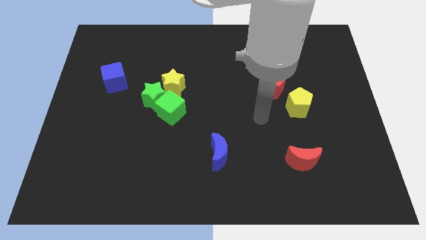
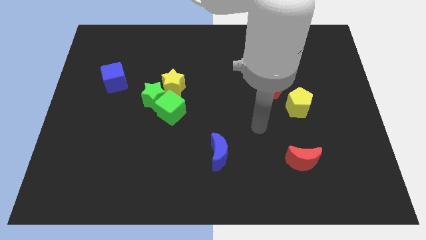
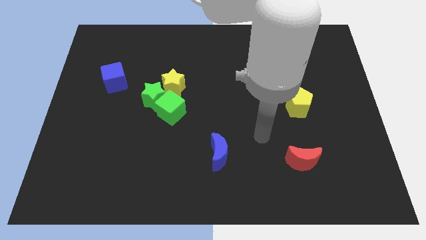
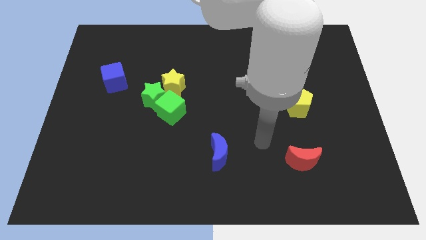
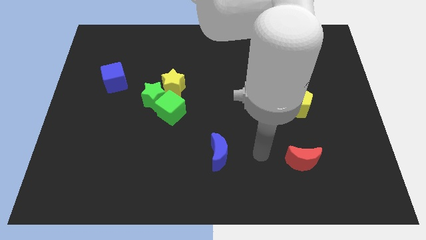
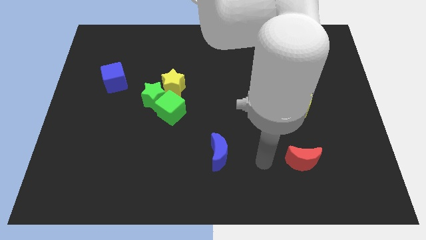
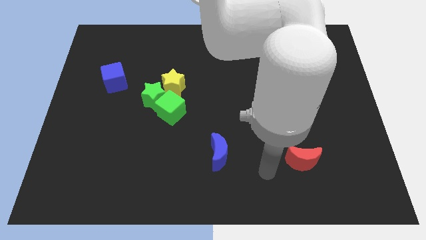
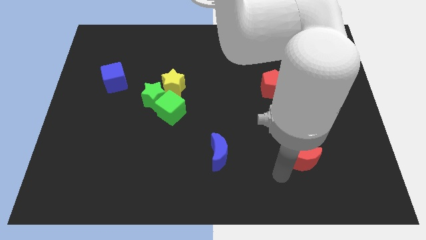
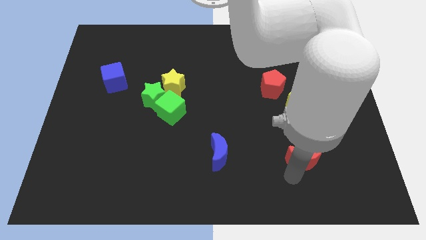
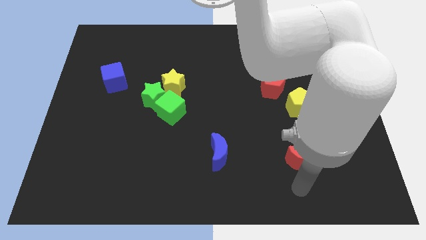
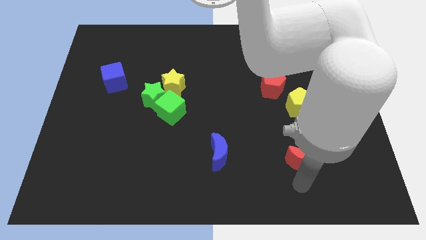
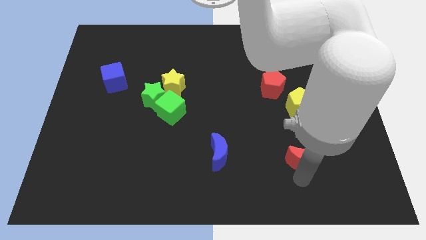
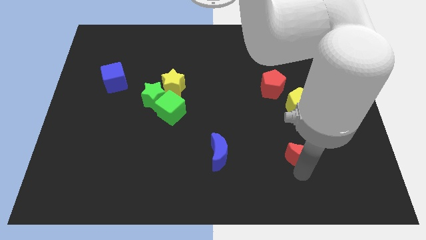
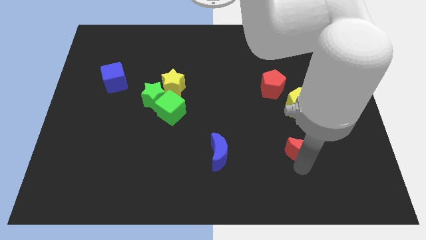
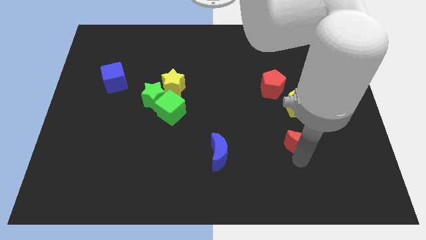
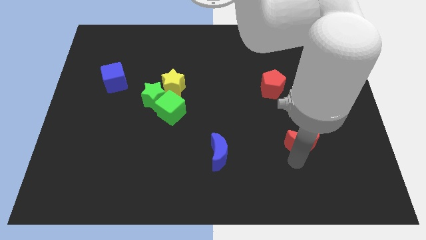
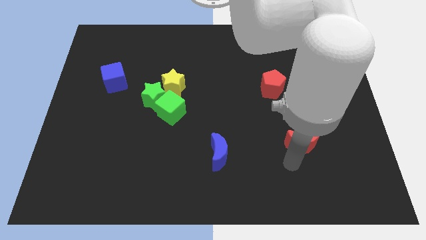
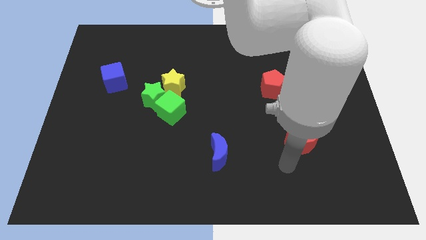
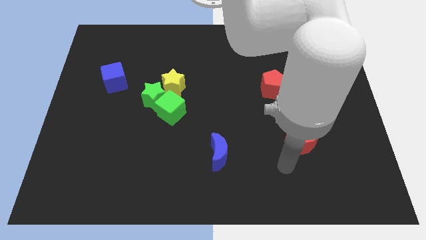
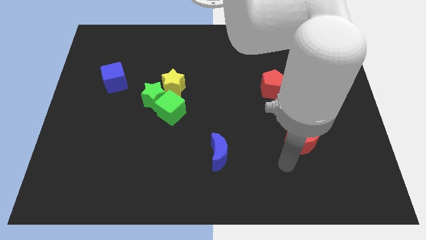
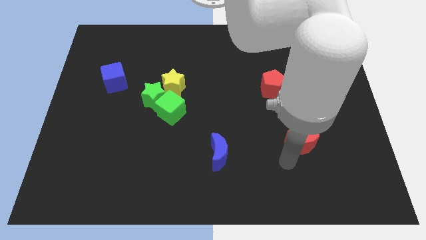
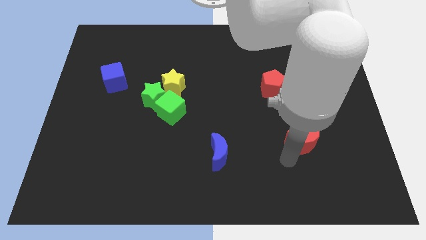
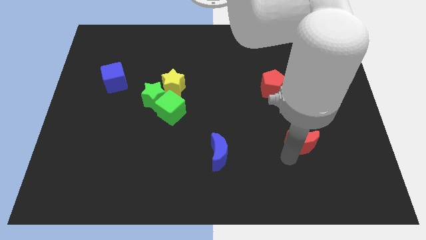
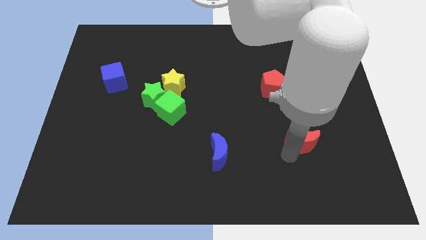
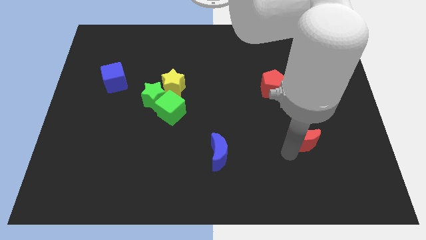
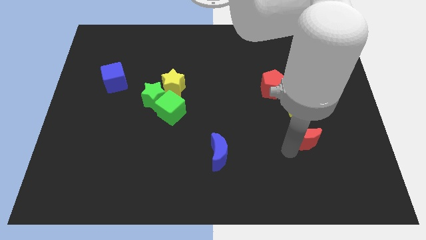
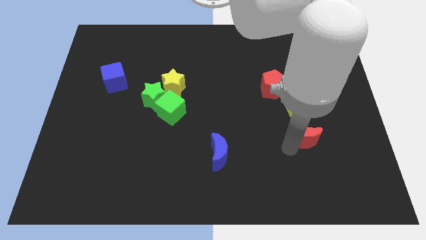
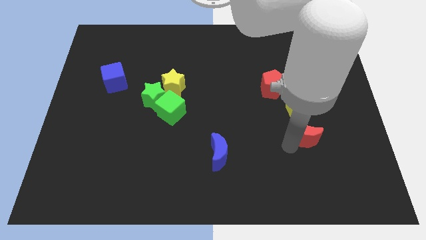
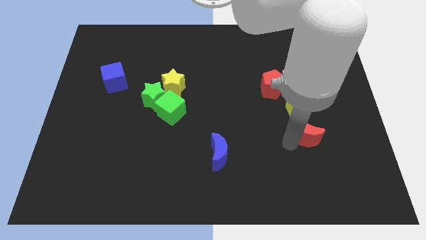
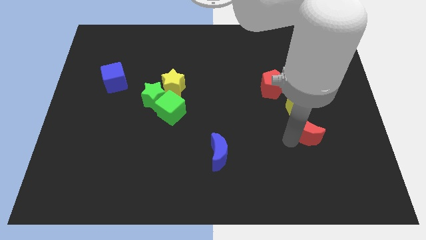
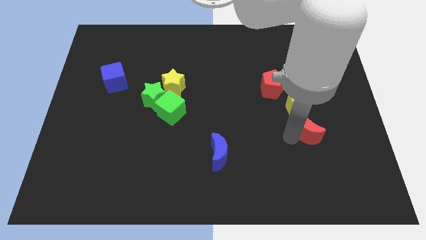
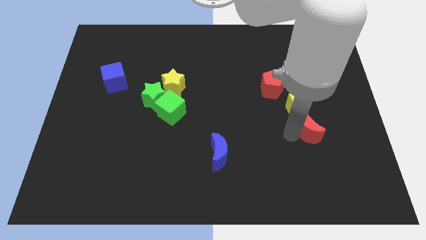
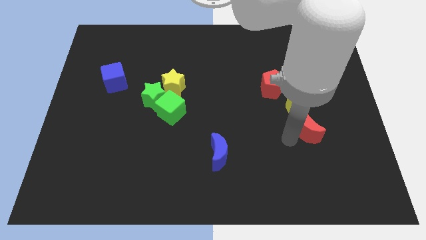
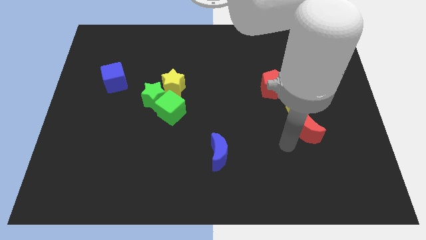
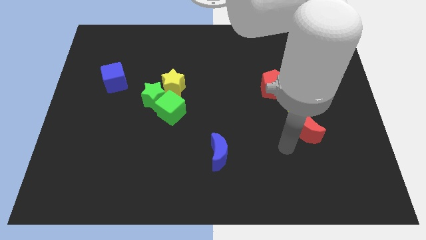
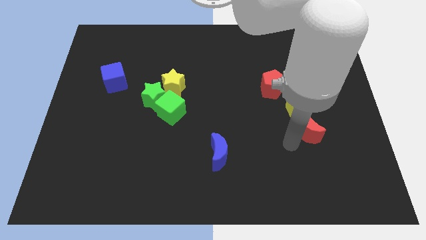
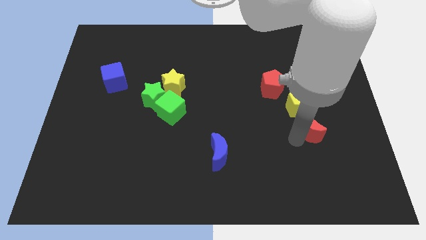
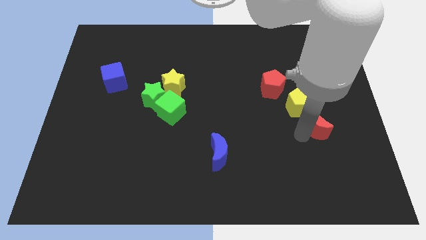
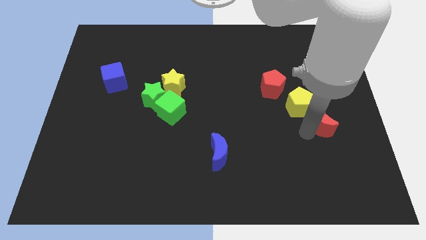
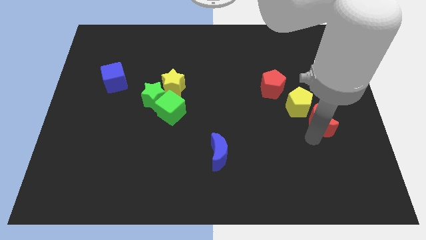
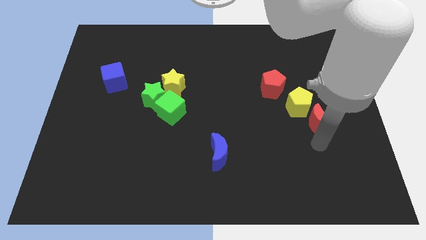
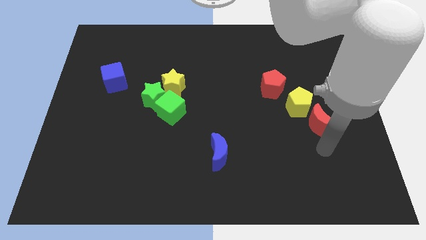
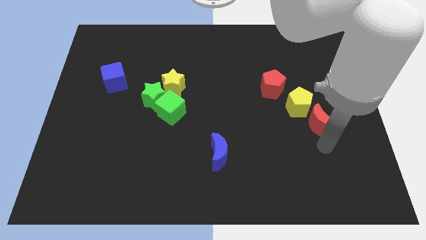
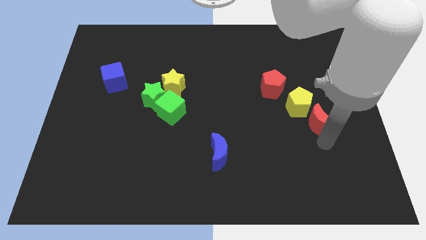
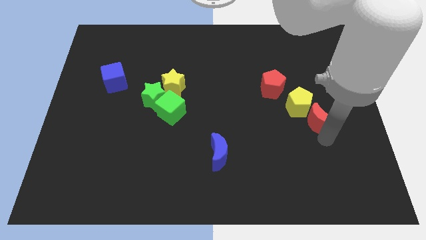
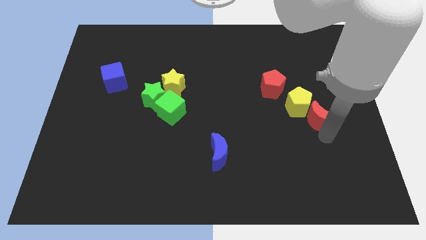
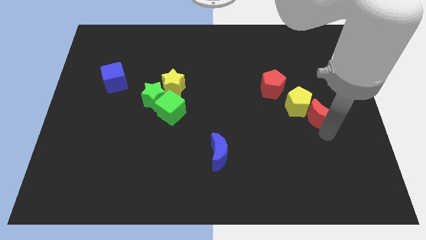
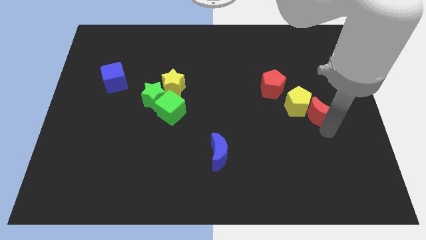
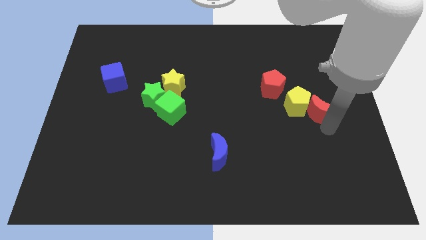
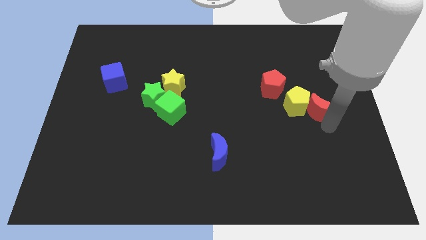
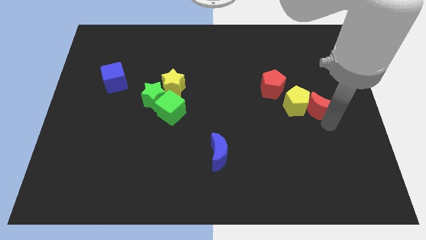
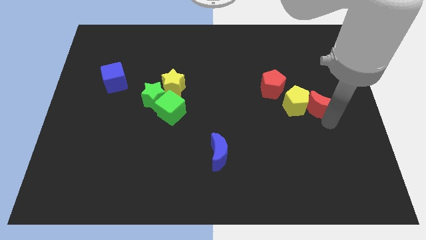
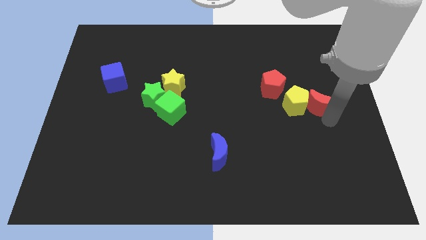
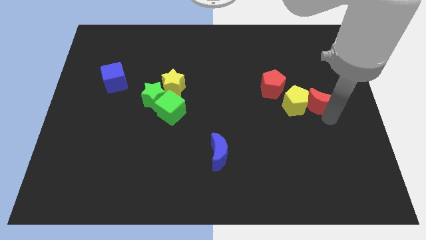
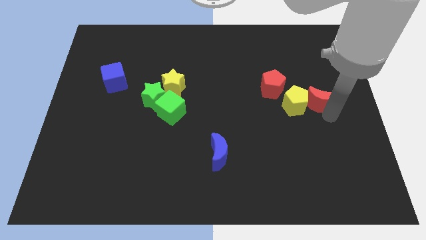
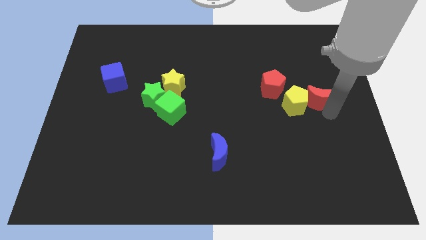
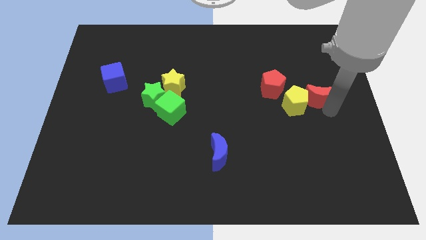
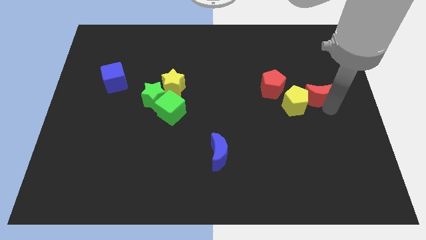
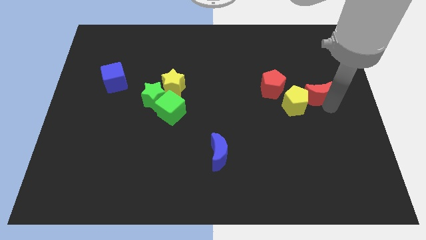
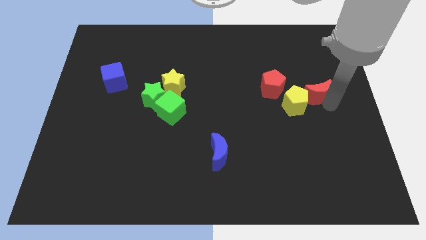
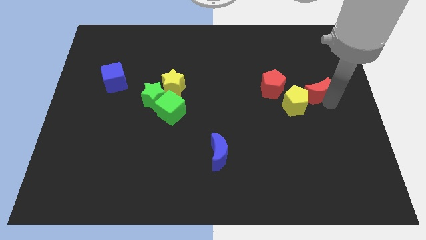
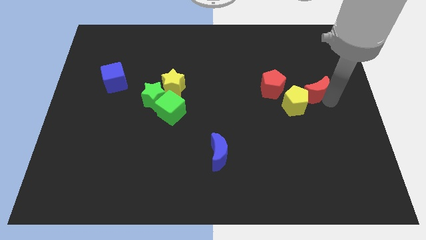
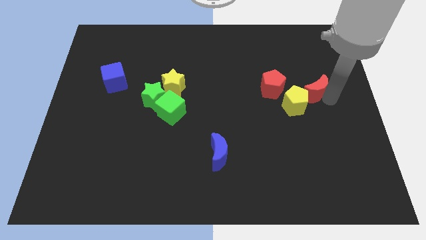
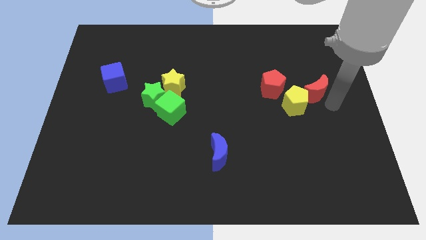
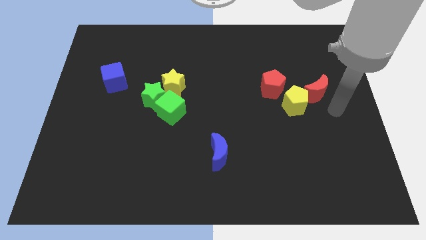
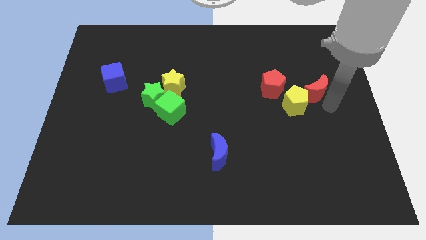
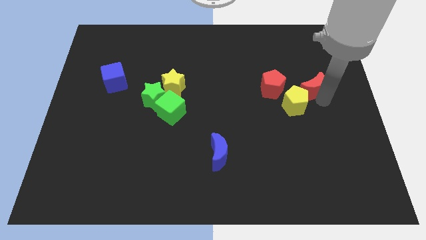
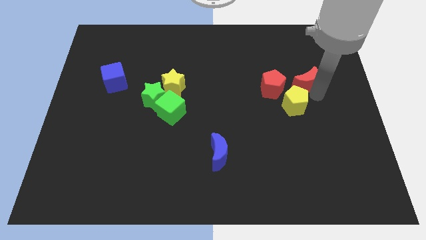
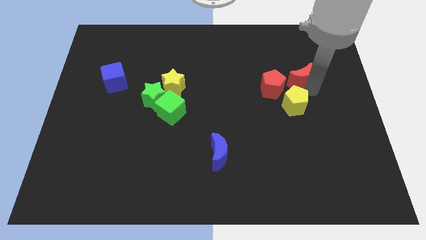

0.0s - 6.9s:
move the red moon to the top right side of the red pentagon

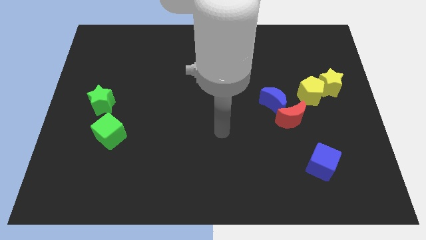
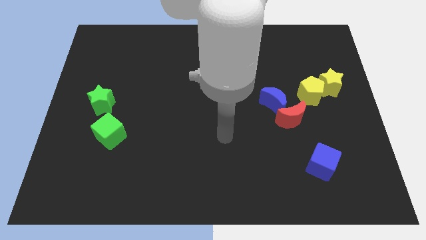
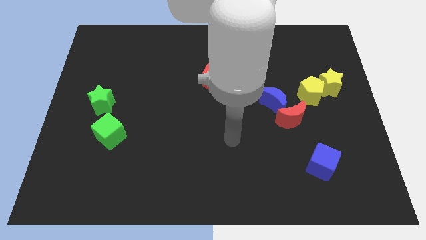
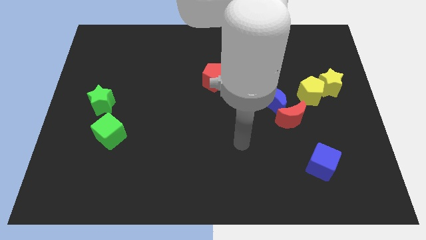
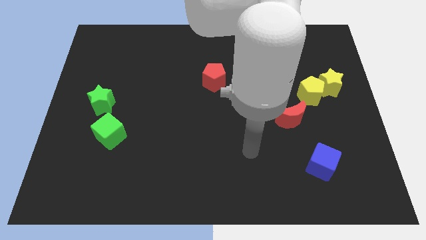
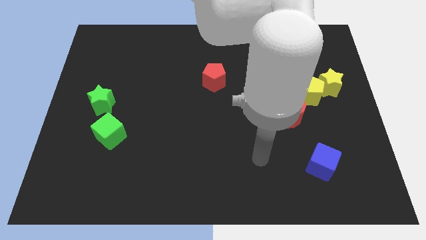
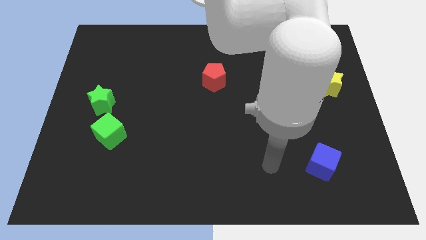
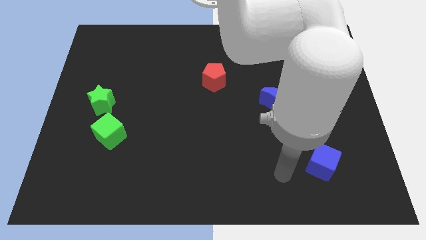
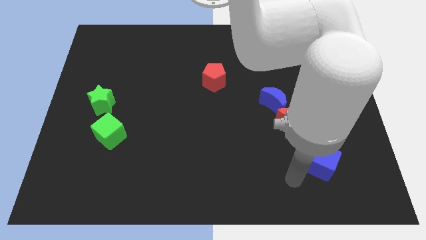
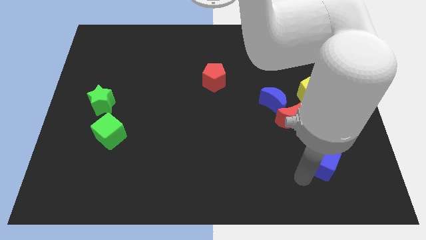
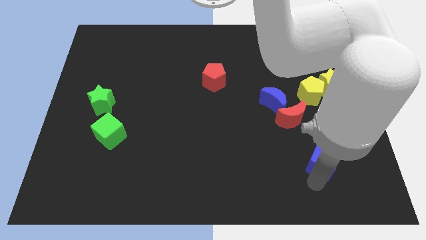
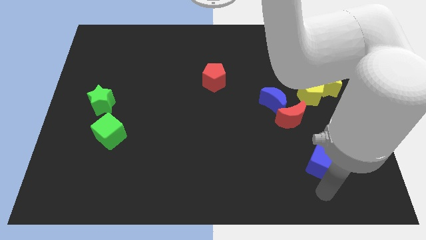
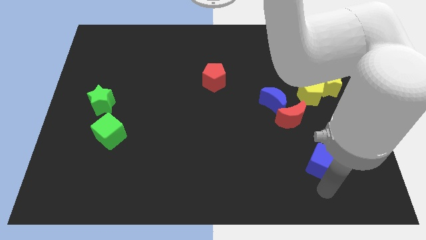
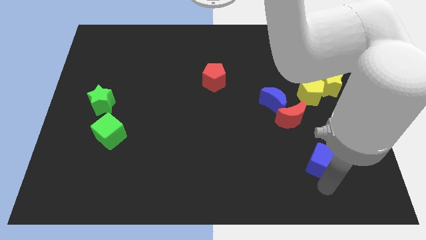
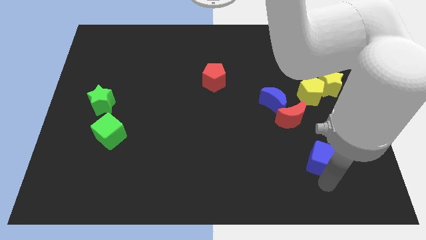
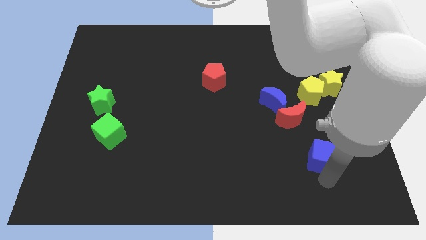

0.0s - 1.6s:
move the blue cube to the bottom right side of the red moon
